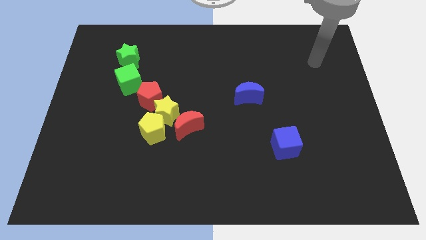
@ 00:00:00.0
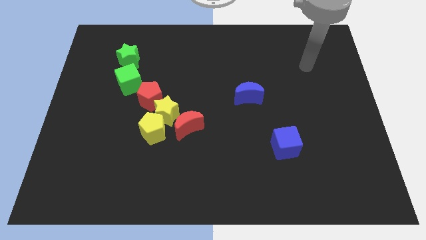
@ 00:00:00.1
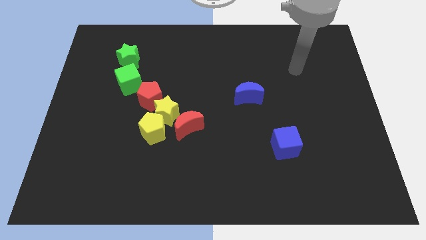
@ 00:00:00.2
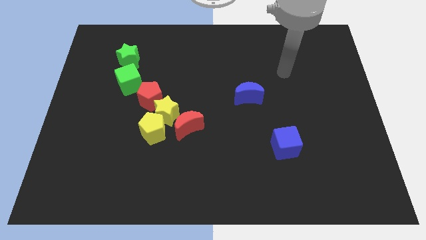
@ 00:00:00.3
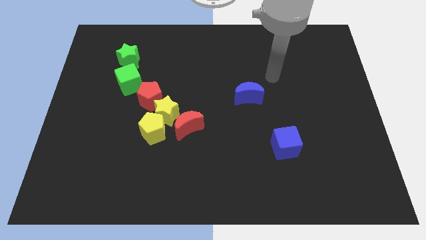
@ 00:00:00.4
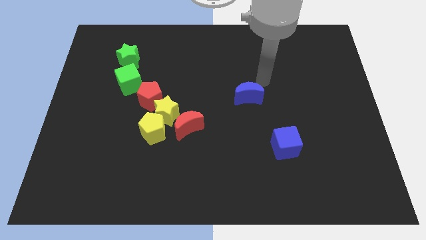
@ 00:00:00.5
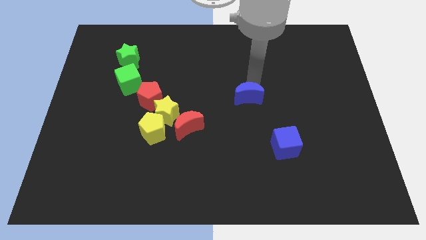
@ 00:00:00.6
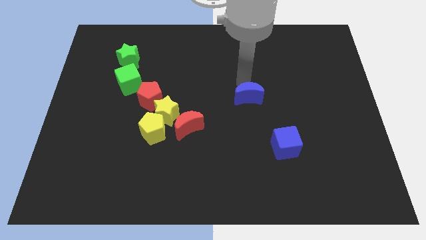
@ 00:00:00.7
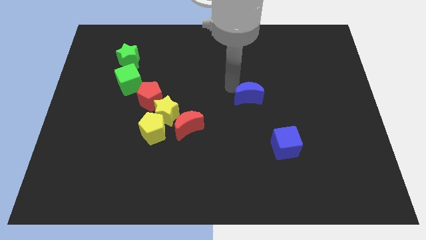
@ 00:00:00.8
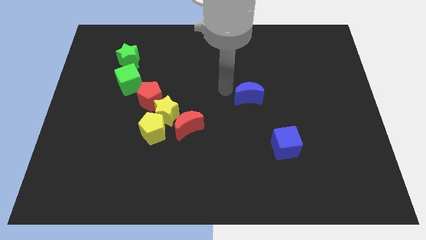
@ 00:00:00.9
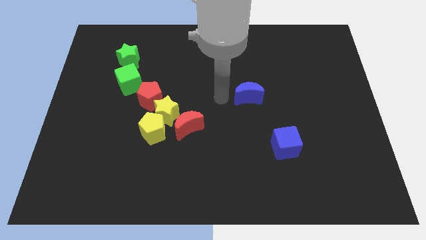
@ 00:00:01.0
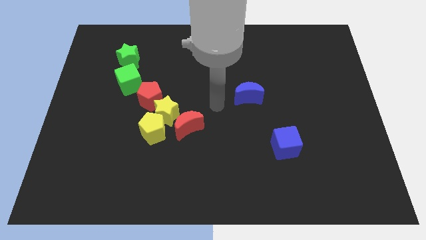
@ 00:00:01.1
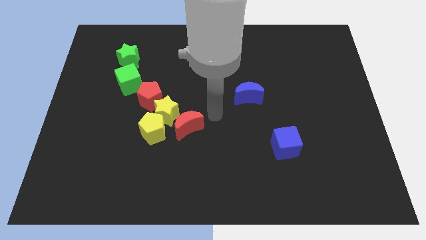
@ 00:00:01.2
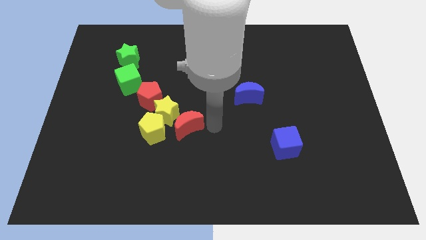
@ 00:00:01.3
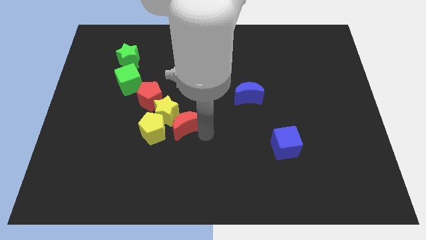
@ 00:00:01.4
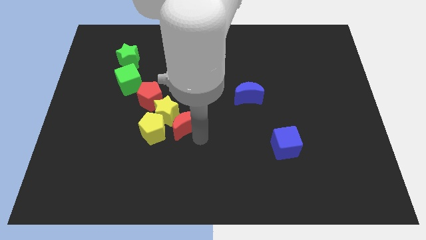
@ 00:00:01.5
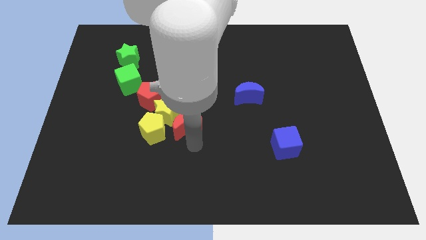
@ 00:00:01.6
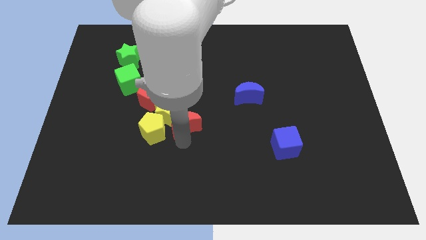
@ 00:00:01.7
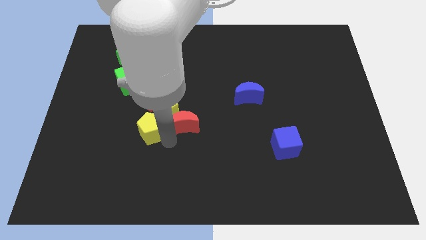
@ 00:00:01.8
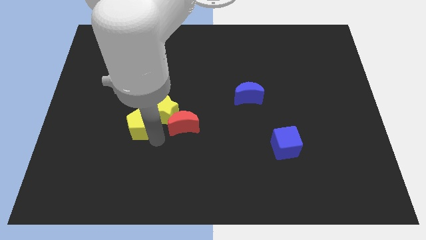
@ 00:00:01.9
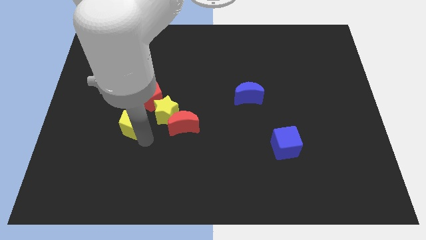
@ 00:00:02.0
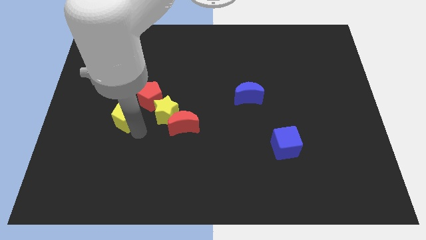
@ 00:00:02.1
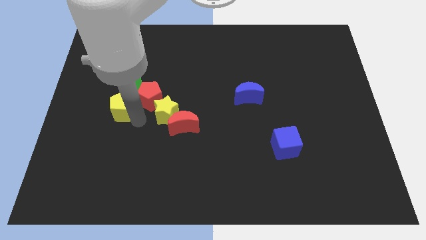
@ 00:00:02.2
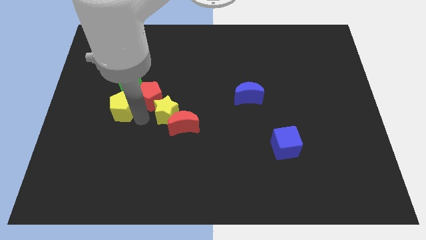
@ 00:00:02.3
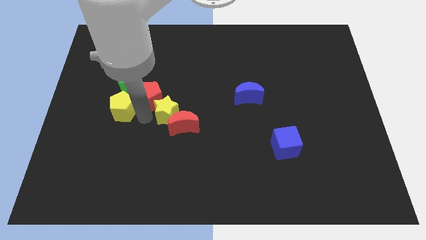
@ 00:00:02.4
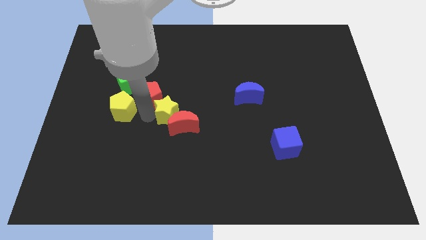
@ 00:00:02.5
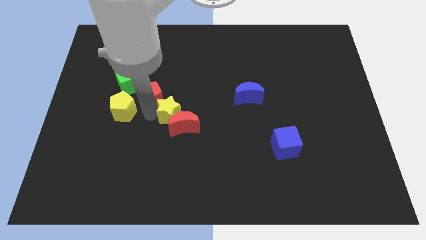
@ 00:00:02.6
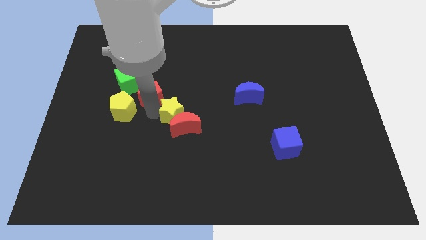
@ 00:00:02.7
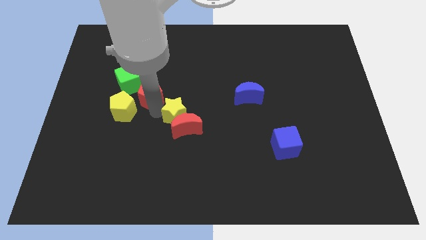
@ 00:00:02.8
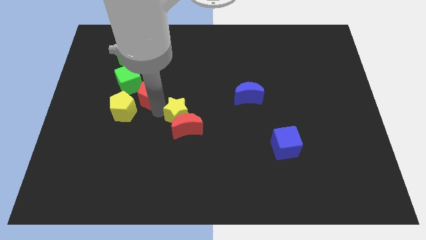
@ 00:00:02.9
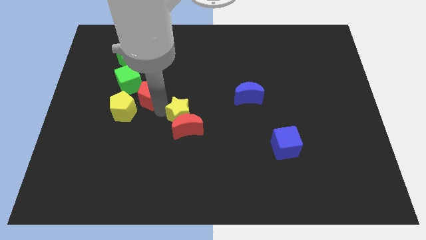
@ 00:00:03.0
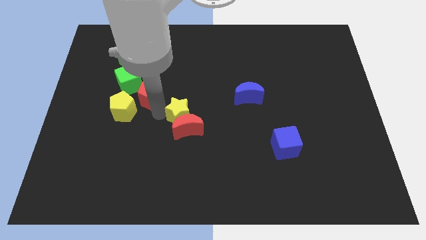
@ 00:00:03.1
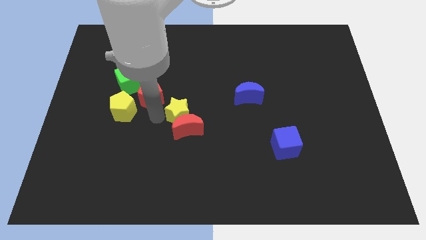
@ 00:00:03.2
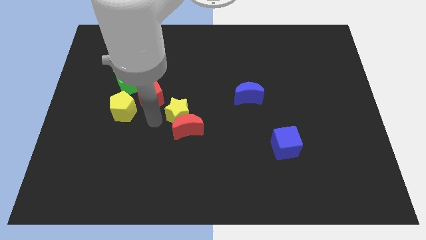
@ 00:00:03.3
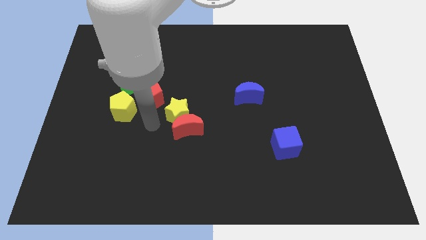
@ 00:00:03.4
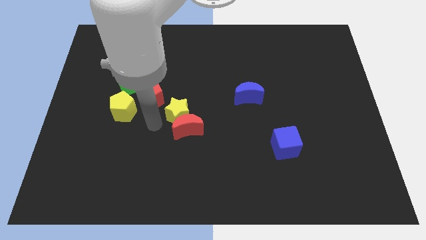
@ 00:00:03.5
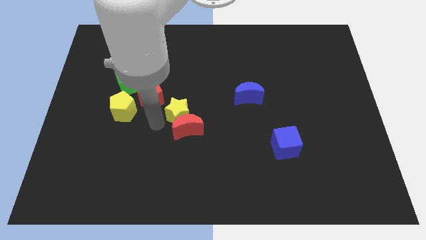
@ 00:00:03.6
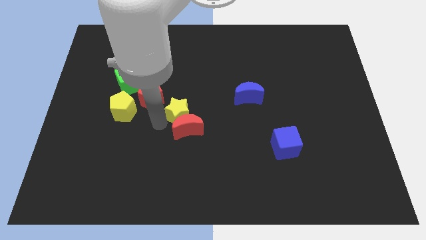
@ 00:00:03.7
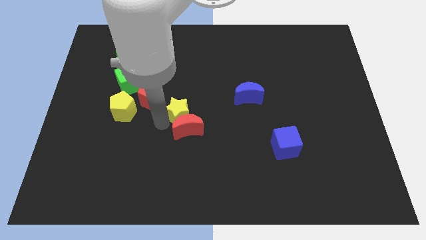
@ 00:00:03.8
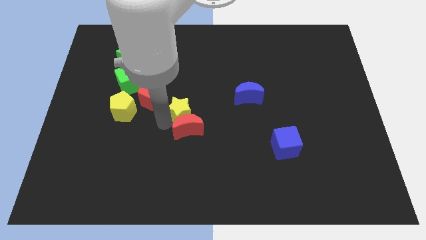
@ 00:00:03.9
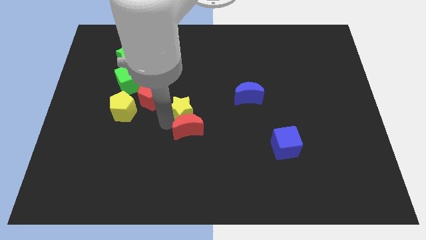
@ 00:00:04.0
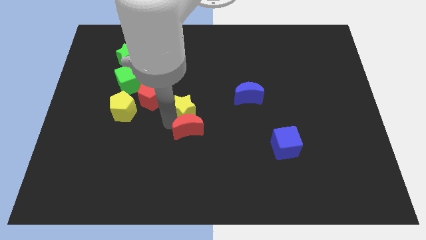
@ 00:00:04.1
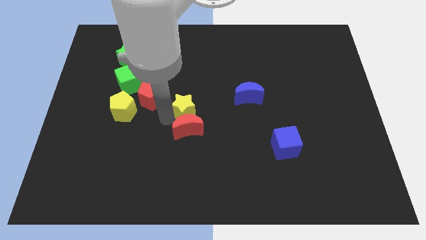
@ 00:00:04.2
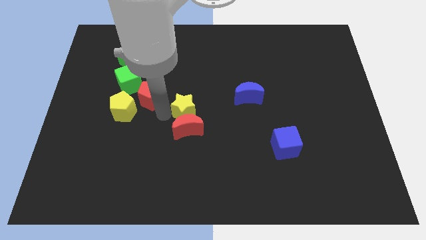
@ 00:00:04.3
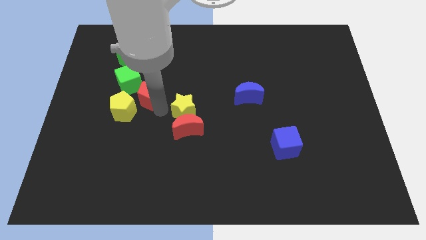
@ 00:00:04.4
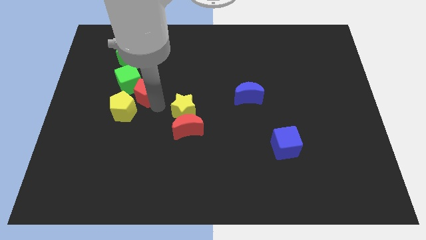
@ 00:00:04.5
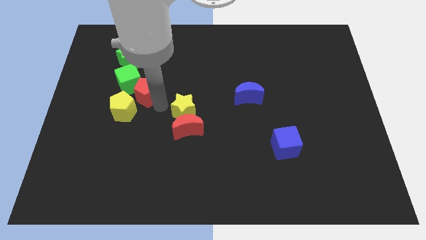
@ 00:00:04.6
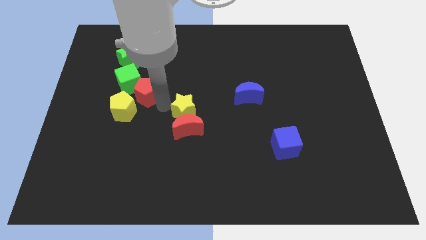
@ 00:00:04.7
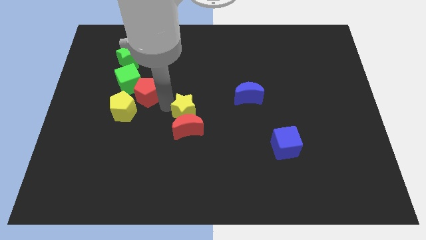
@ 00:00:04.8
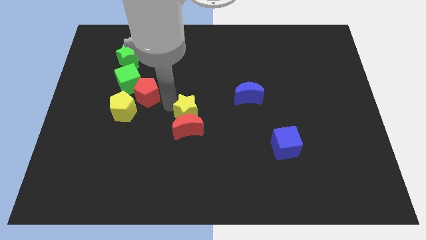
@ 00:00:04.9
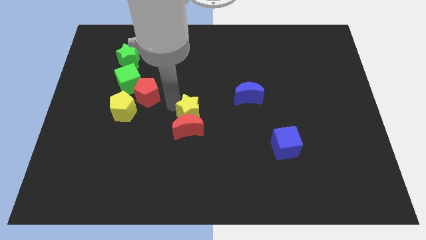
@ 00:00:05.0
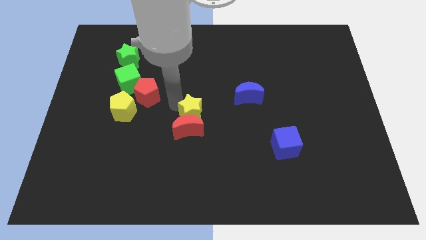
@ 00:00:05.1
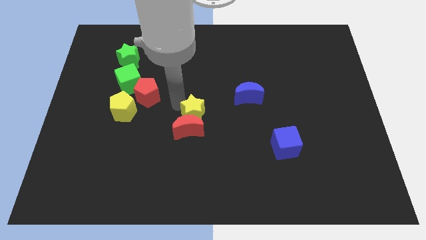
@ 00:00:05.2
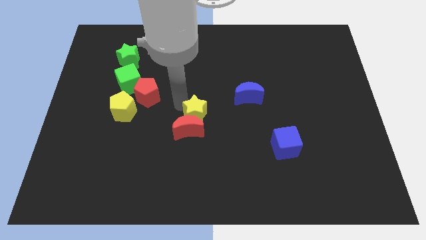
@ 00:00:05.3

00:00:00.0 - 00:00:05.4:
slightly move the yellow star to the right

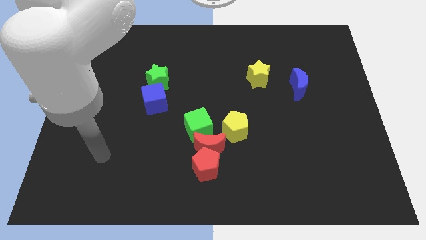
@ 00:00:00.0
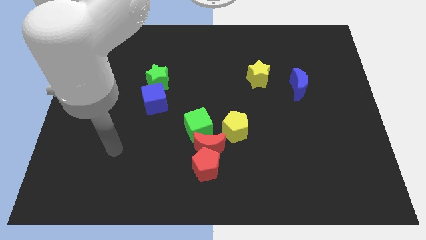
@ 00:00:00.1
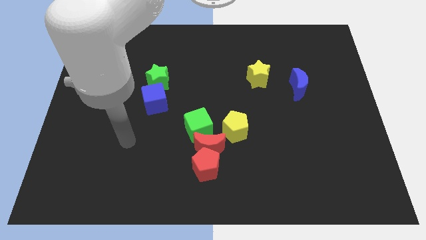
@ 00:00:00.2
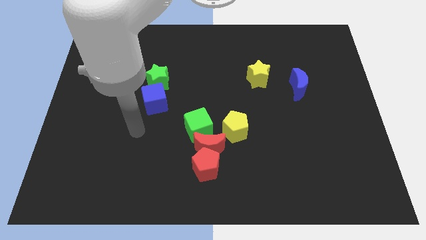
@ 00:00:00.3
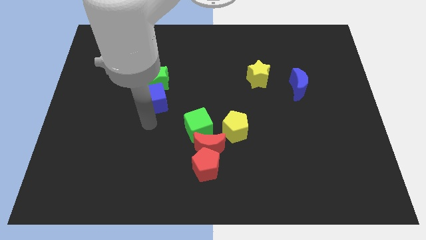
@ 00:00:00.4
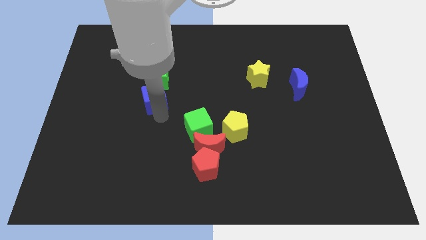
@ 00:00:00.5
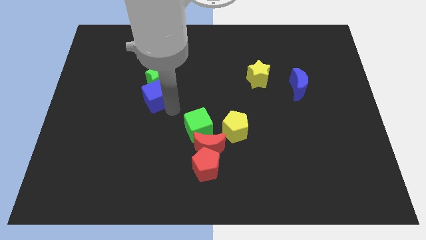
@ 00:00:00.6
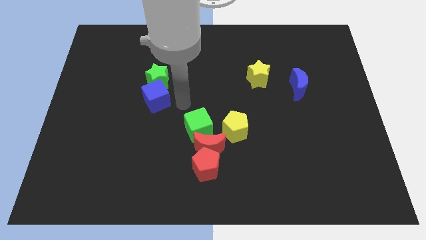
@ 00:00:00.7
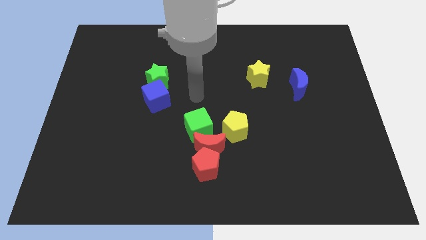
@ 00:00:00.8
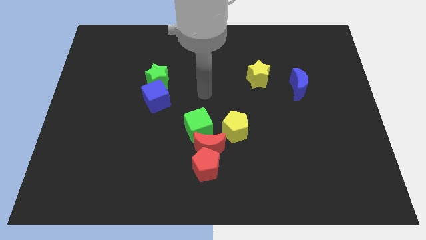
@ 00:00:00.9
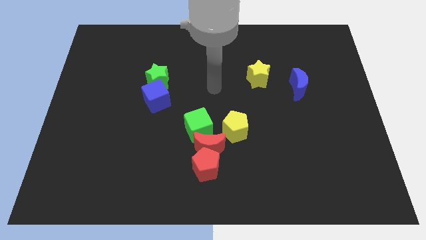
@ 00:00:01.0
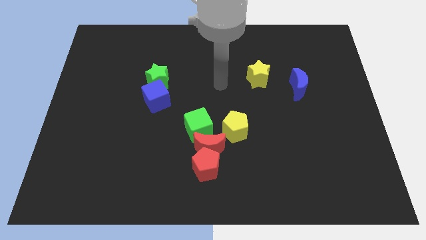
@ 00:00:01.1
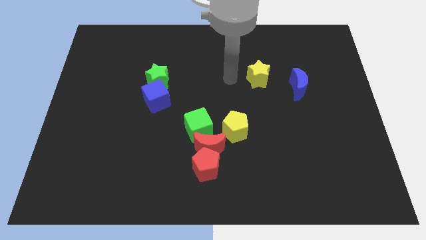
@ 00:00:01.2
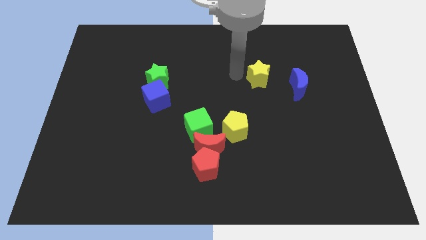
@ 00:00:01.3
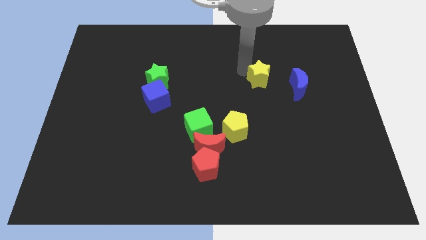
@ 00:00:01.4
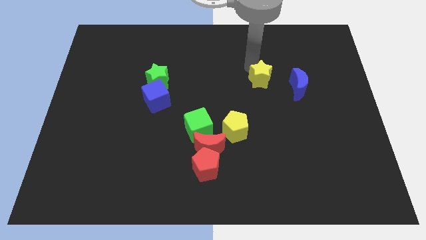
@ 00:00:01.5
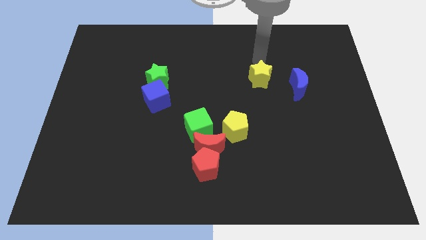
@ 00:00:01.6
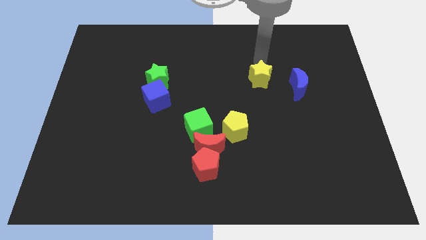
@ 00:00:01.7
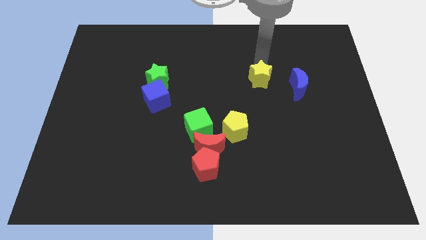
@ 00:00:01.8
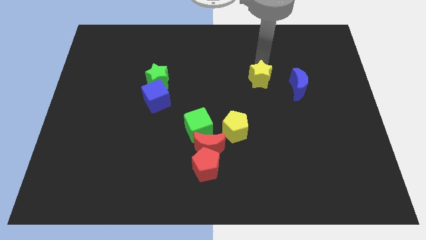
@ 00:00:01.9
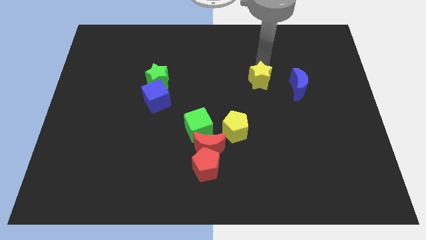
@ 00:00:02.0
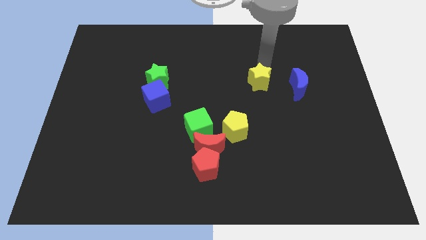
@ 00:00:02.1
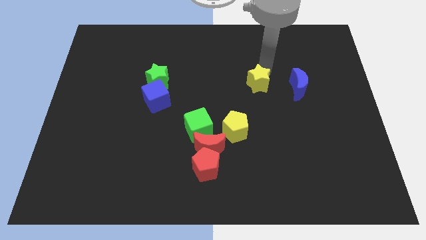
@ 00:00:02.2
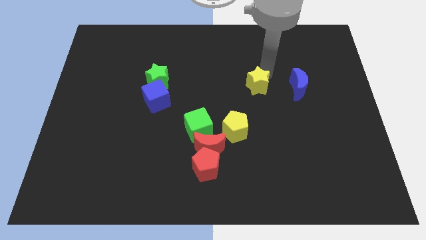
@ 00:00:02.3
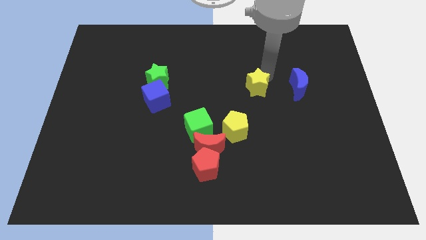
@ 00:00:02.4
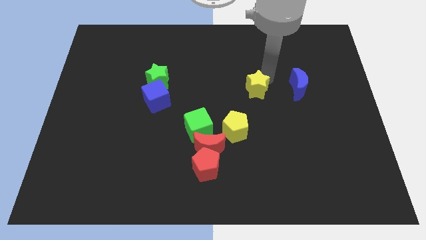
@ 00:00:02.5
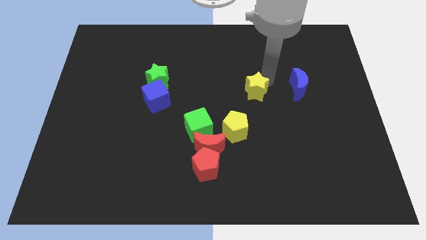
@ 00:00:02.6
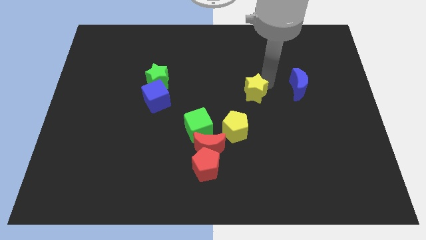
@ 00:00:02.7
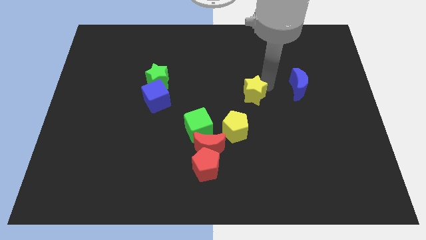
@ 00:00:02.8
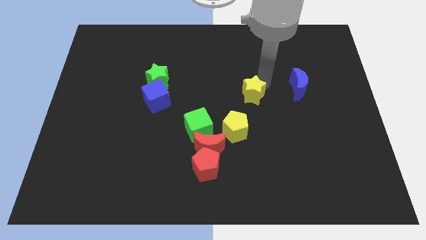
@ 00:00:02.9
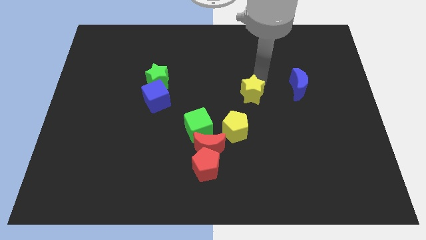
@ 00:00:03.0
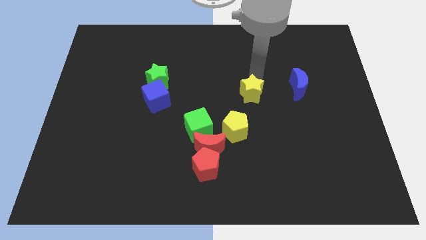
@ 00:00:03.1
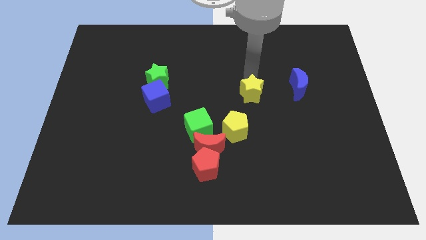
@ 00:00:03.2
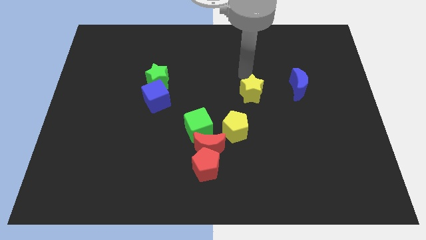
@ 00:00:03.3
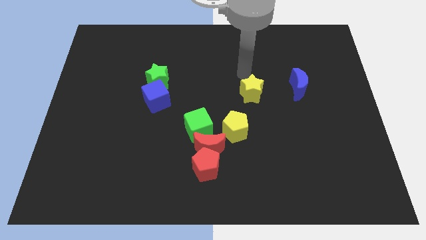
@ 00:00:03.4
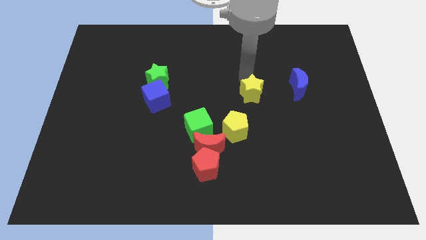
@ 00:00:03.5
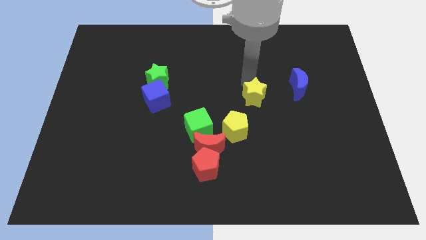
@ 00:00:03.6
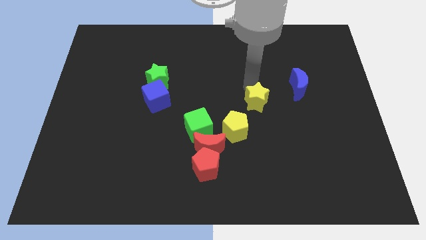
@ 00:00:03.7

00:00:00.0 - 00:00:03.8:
slightly push the yellow star downwards
